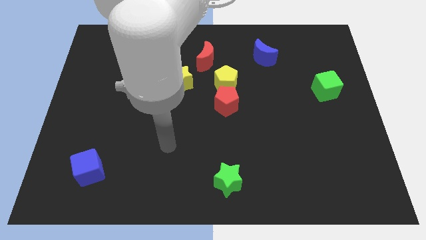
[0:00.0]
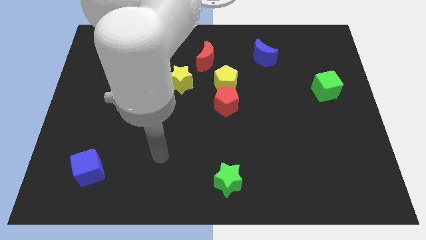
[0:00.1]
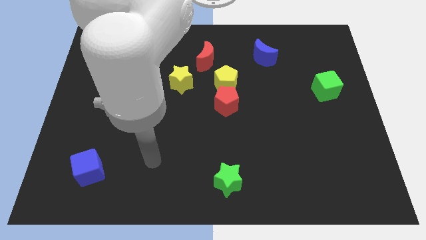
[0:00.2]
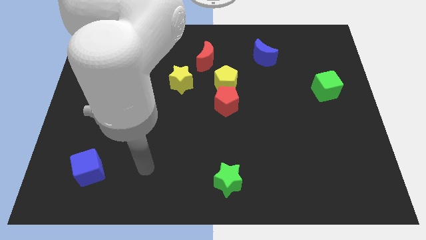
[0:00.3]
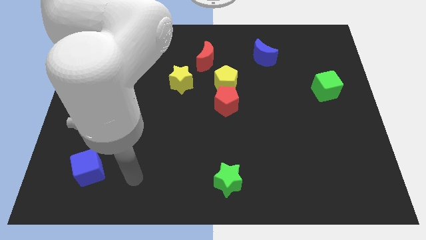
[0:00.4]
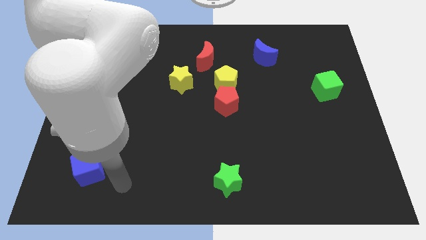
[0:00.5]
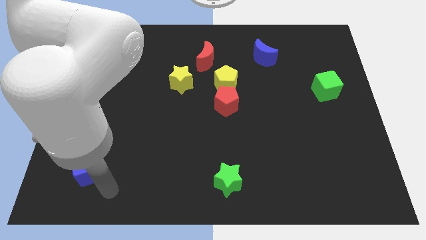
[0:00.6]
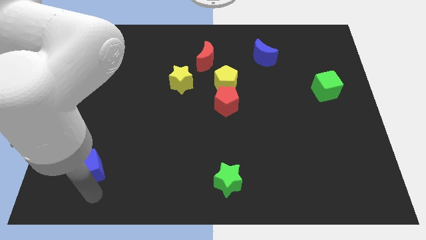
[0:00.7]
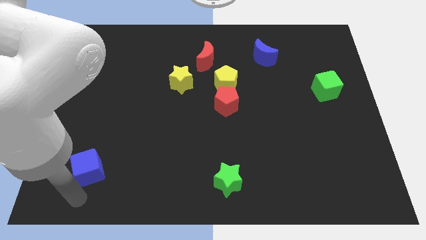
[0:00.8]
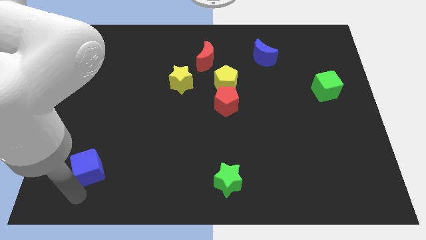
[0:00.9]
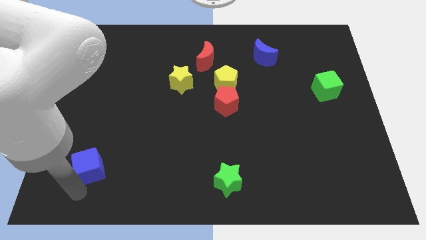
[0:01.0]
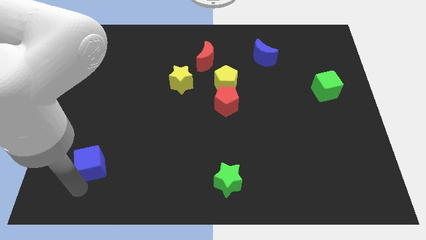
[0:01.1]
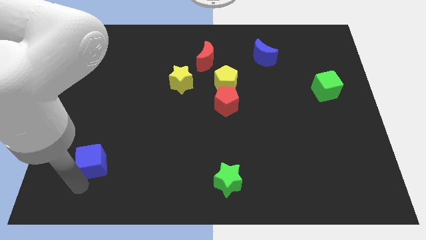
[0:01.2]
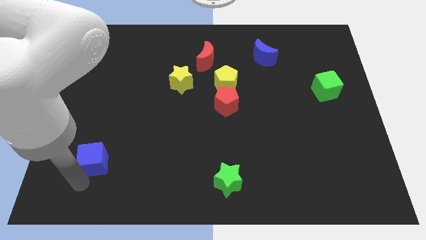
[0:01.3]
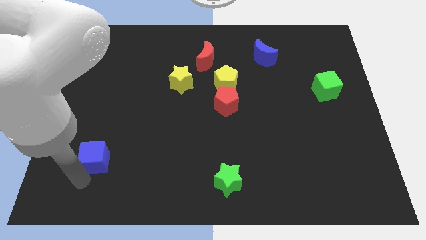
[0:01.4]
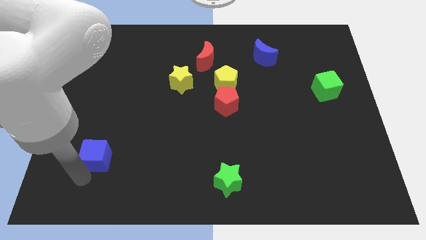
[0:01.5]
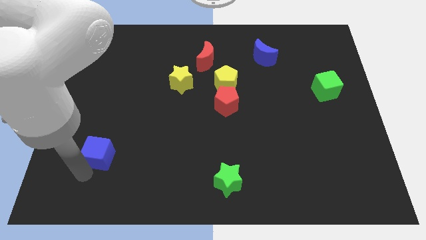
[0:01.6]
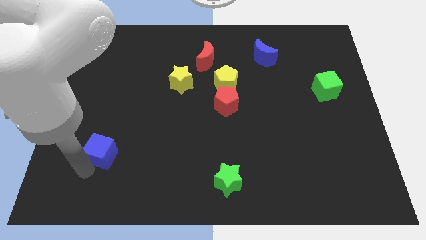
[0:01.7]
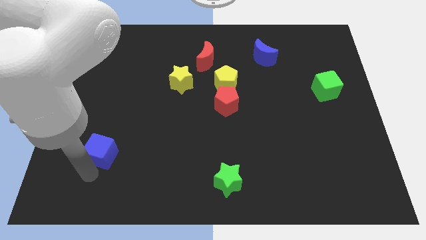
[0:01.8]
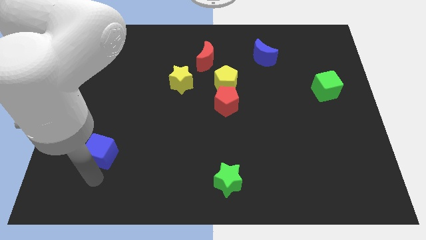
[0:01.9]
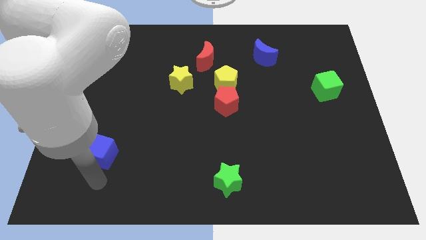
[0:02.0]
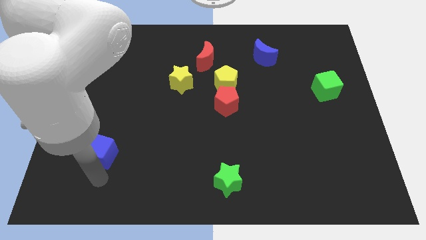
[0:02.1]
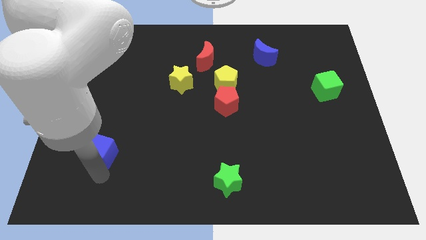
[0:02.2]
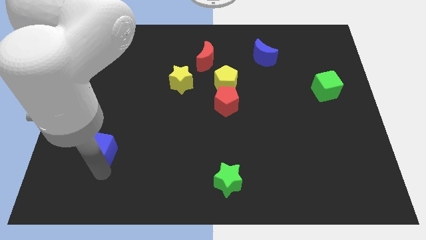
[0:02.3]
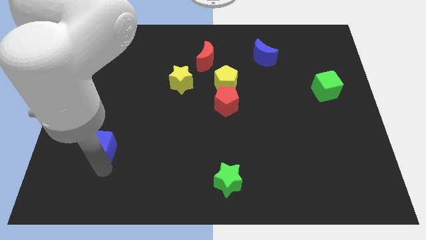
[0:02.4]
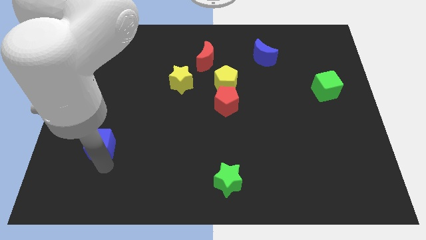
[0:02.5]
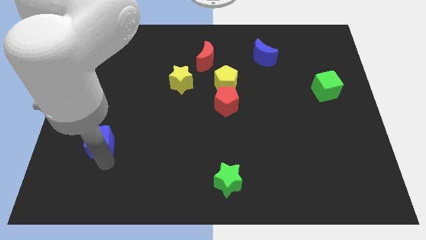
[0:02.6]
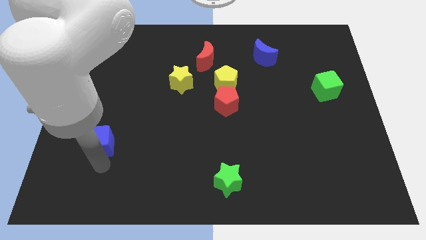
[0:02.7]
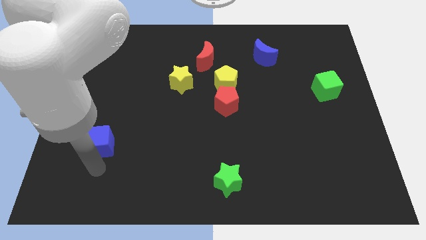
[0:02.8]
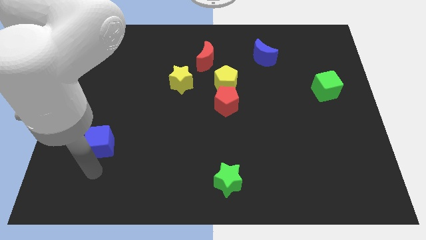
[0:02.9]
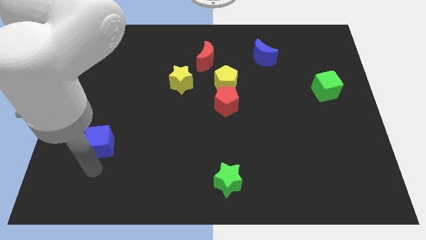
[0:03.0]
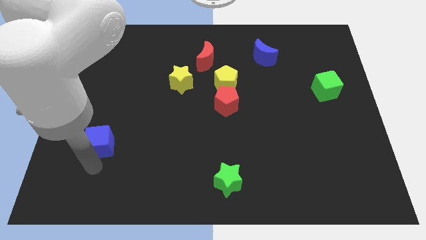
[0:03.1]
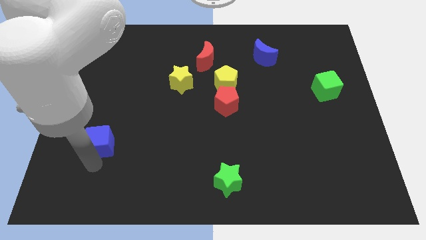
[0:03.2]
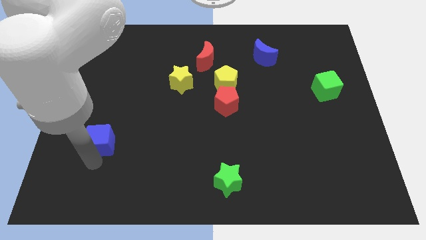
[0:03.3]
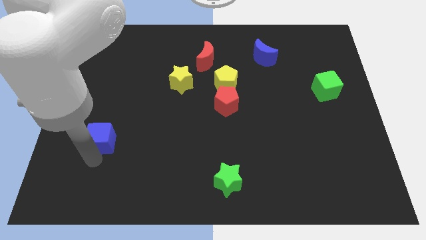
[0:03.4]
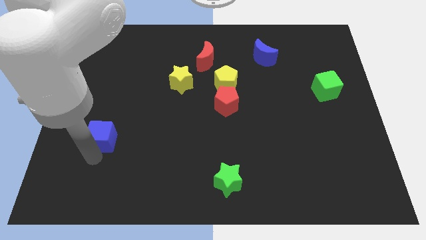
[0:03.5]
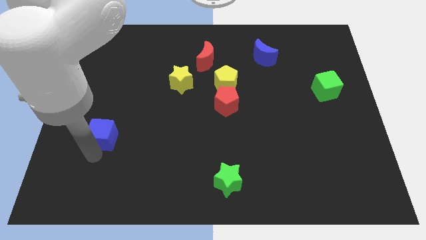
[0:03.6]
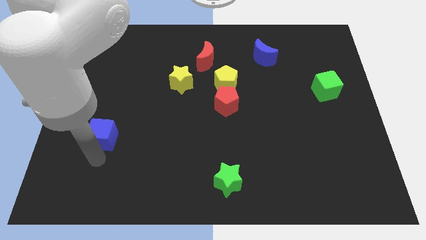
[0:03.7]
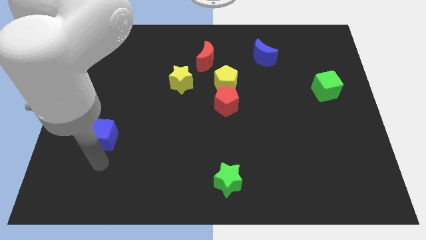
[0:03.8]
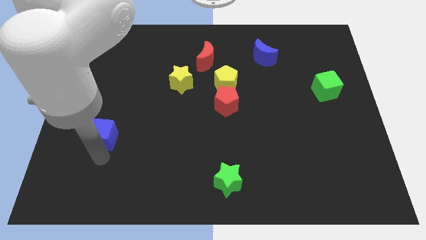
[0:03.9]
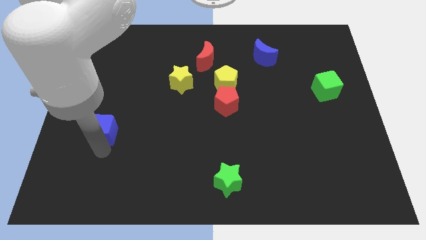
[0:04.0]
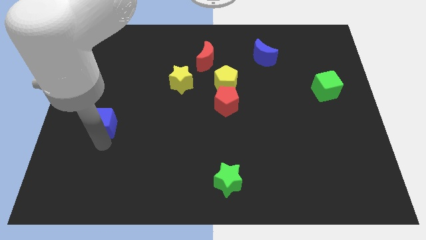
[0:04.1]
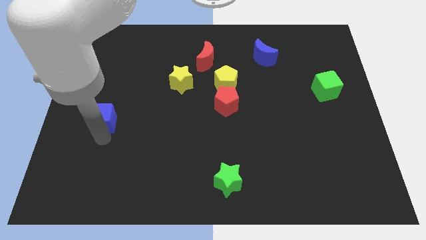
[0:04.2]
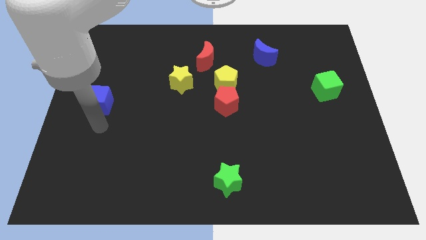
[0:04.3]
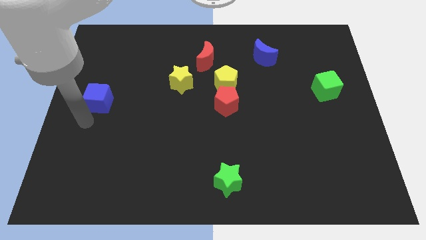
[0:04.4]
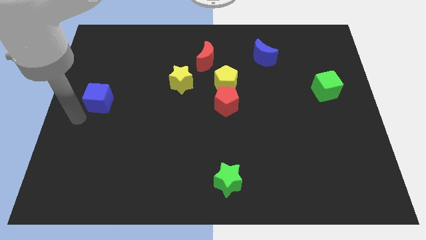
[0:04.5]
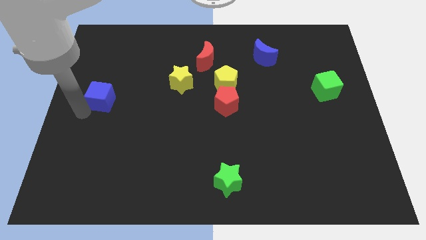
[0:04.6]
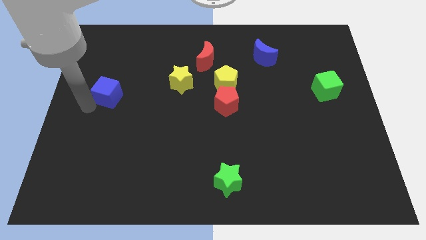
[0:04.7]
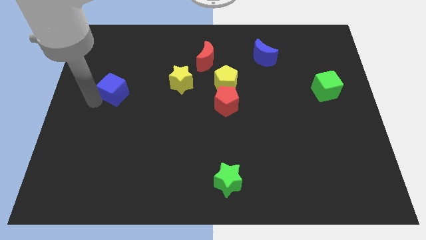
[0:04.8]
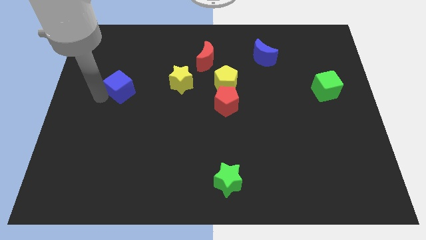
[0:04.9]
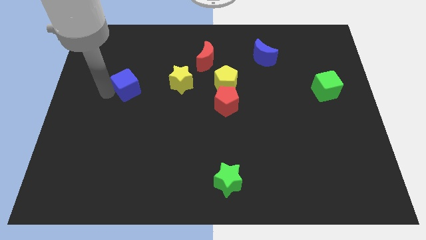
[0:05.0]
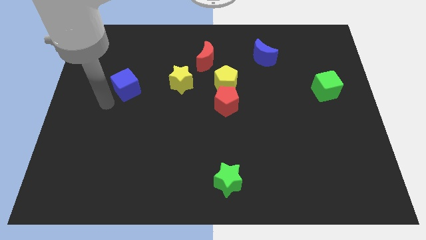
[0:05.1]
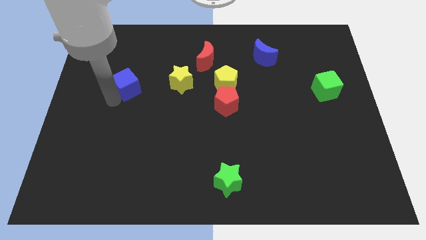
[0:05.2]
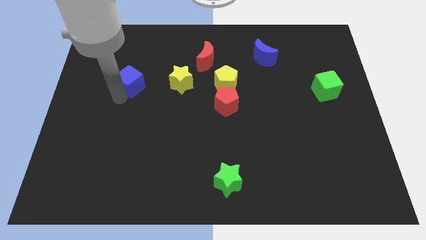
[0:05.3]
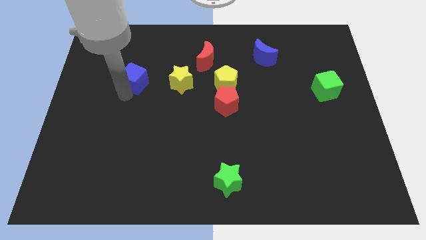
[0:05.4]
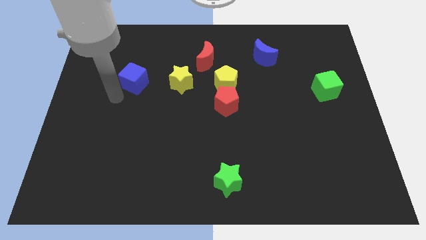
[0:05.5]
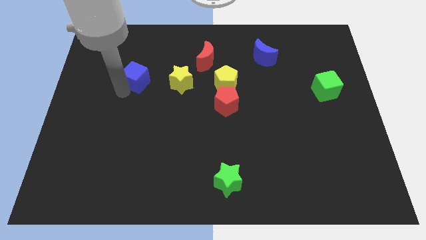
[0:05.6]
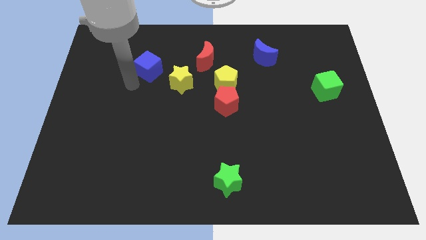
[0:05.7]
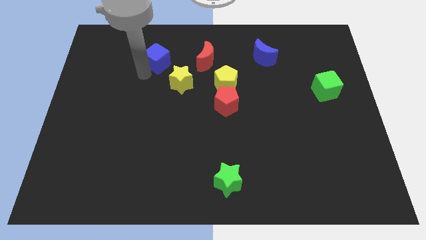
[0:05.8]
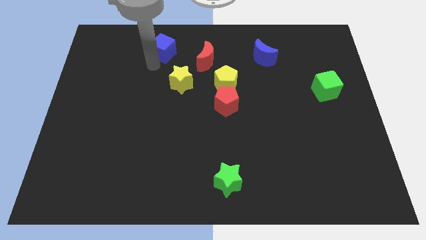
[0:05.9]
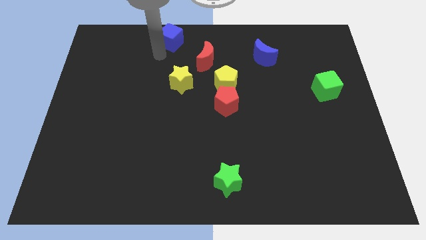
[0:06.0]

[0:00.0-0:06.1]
slide the blue cube to the top

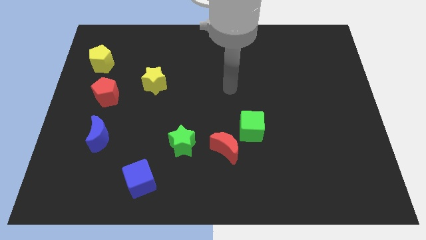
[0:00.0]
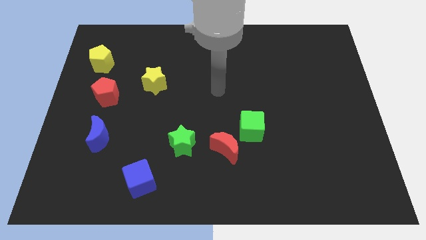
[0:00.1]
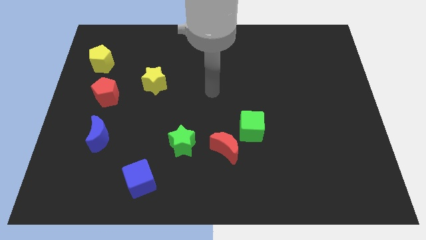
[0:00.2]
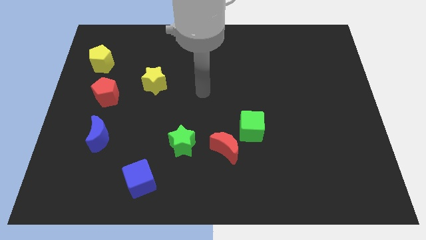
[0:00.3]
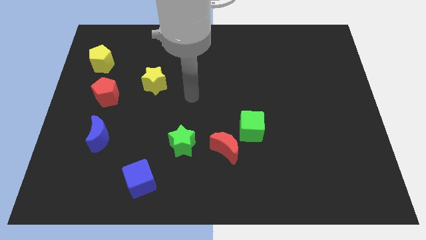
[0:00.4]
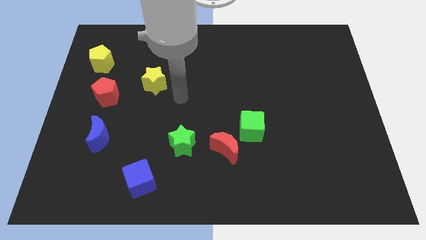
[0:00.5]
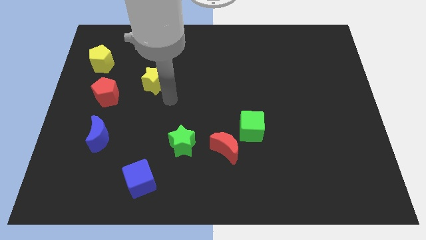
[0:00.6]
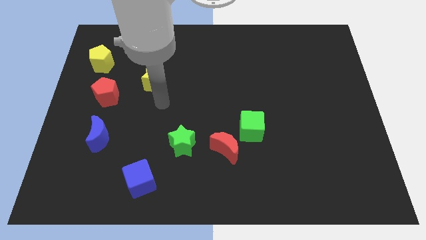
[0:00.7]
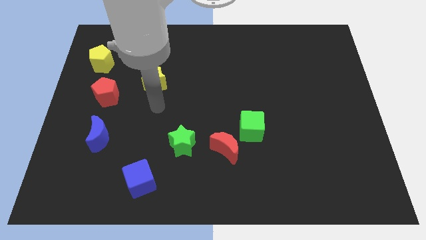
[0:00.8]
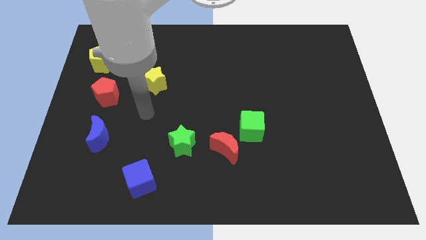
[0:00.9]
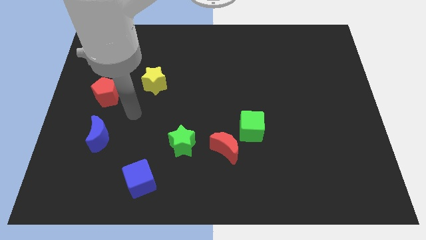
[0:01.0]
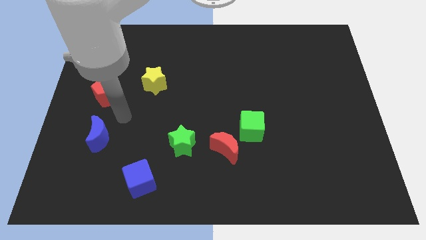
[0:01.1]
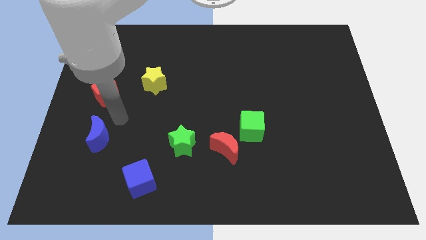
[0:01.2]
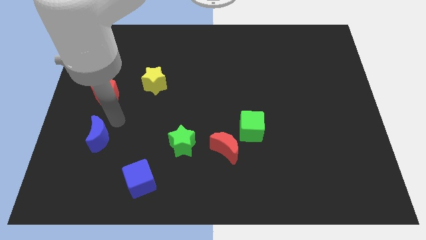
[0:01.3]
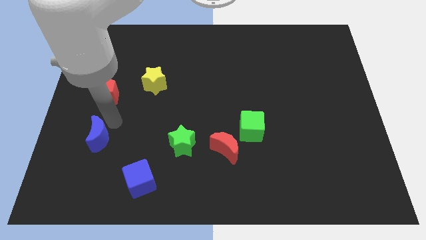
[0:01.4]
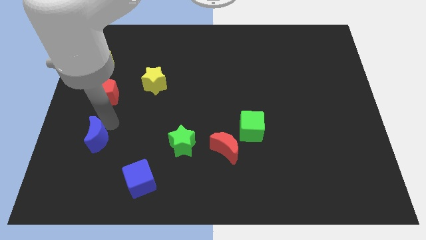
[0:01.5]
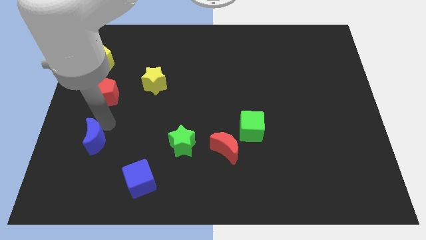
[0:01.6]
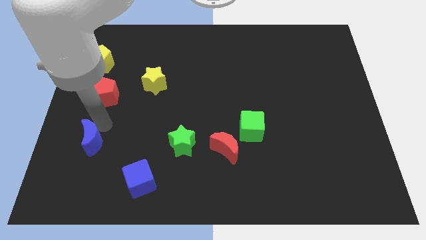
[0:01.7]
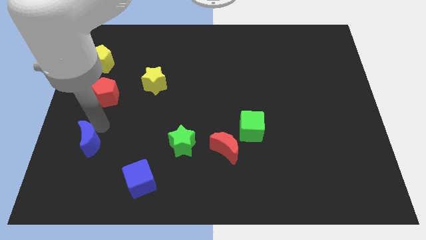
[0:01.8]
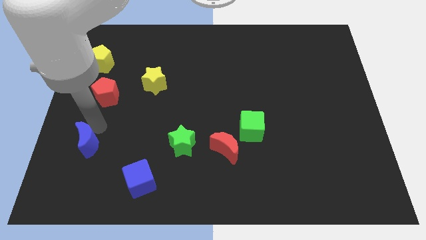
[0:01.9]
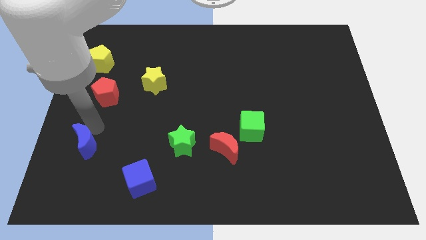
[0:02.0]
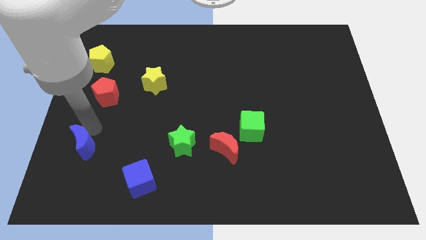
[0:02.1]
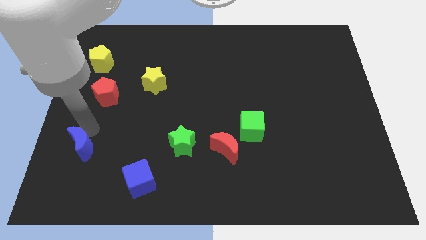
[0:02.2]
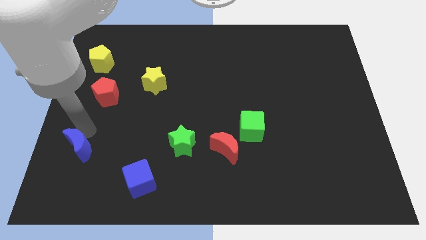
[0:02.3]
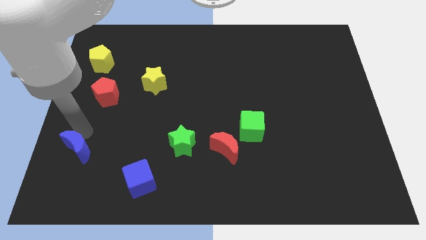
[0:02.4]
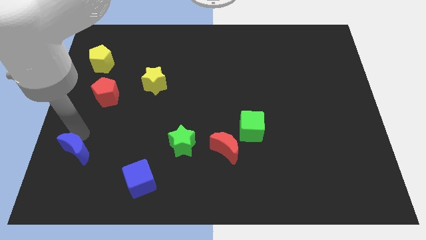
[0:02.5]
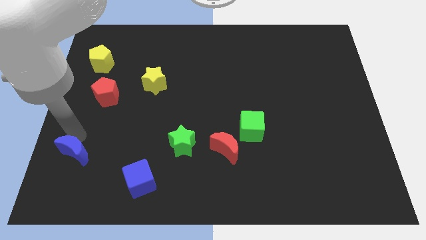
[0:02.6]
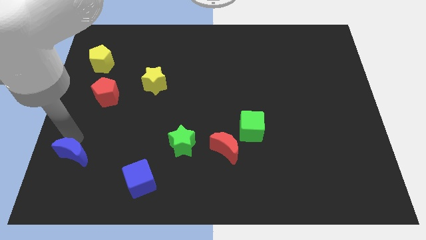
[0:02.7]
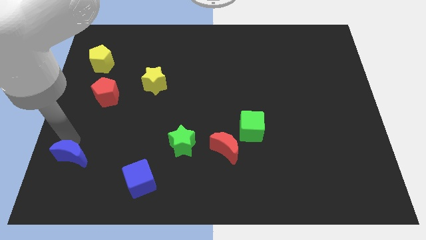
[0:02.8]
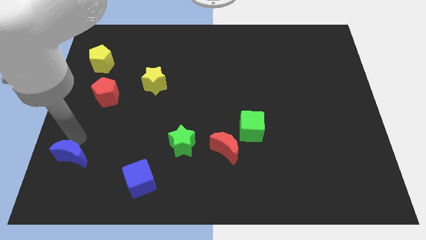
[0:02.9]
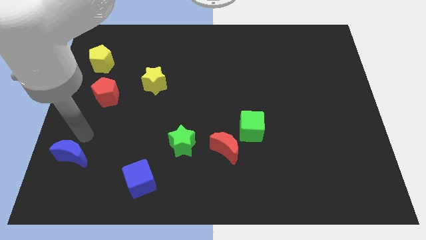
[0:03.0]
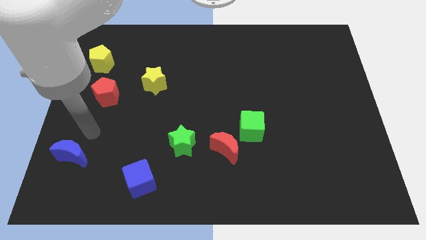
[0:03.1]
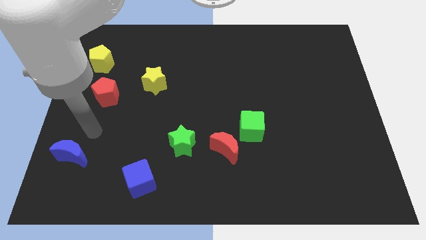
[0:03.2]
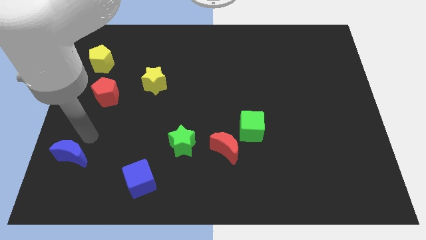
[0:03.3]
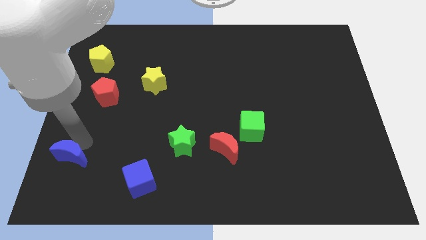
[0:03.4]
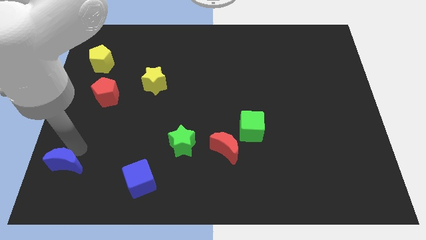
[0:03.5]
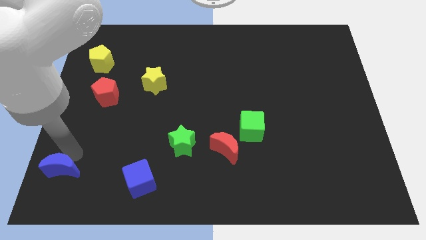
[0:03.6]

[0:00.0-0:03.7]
push the blue moon to the lower left corner
